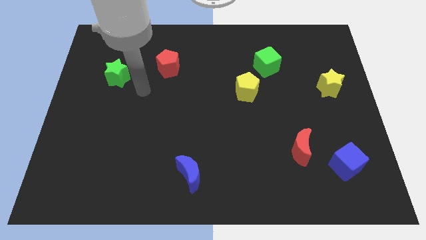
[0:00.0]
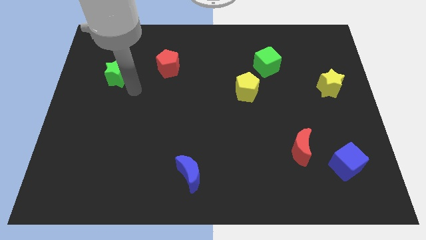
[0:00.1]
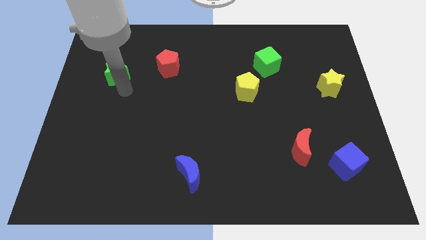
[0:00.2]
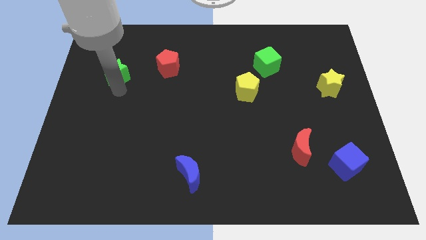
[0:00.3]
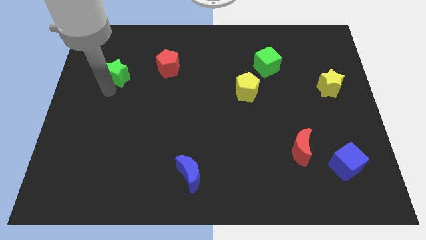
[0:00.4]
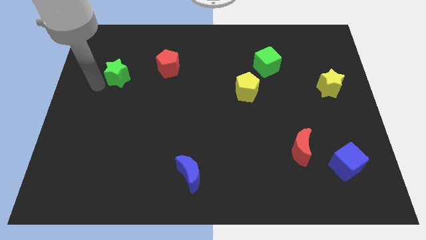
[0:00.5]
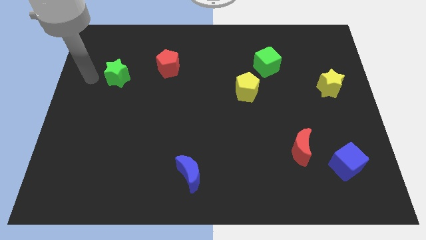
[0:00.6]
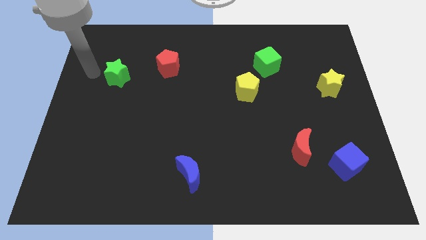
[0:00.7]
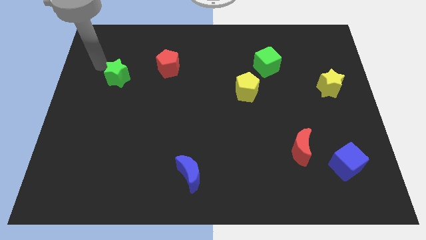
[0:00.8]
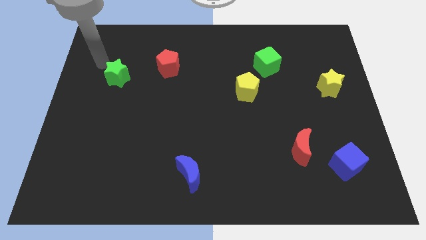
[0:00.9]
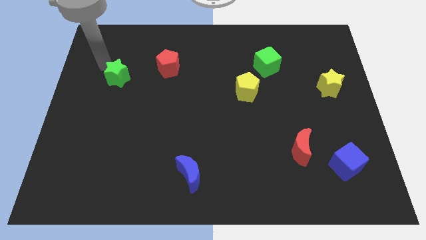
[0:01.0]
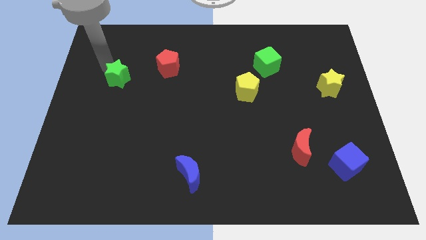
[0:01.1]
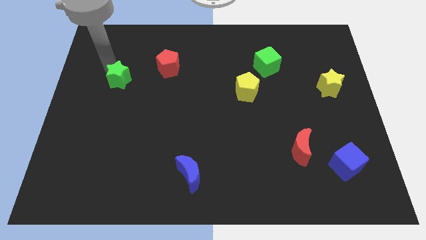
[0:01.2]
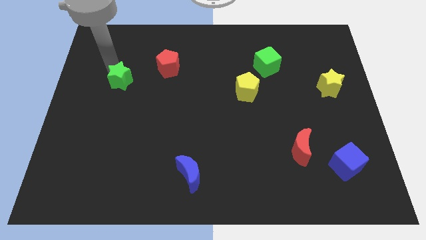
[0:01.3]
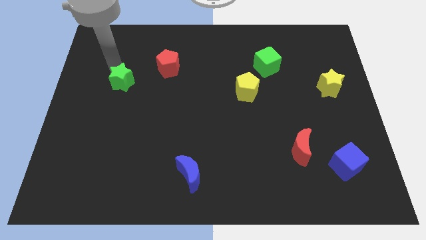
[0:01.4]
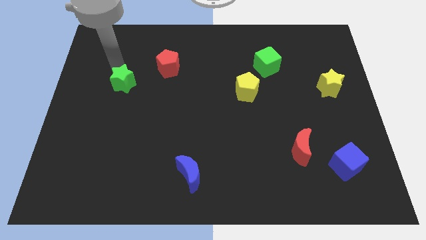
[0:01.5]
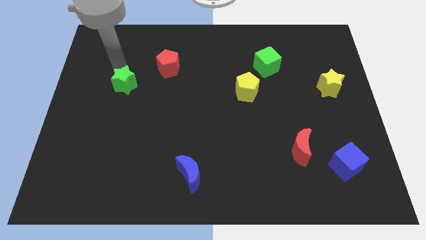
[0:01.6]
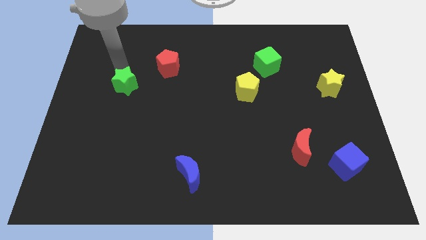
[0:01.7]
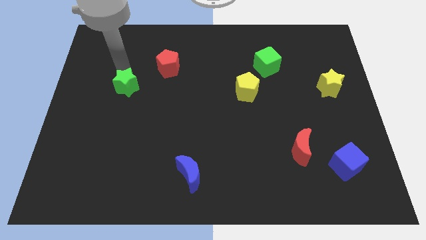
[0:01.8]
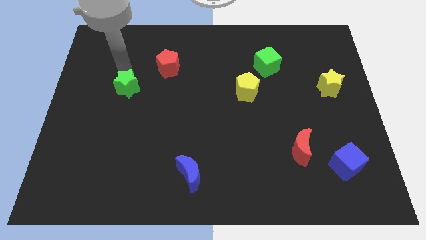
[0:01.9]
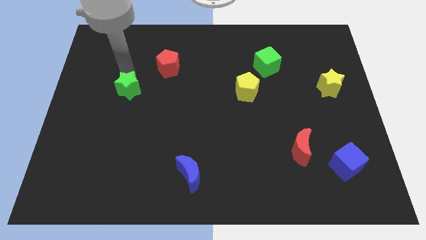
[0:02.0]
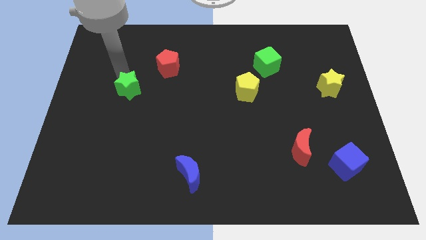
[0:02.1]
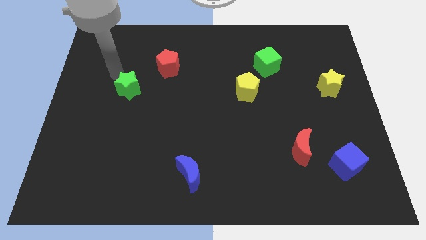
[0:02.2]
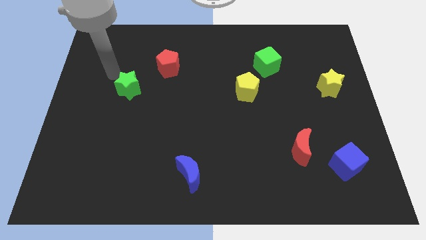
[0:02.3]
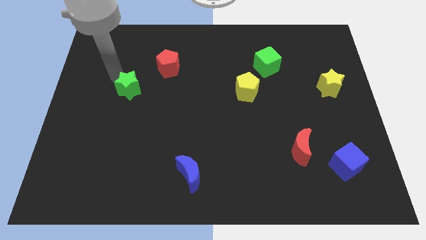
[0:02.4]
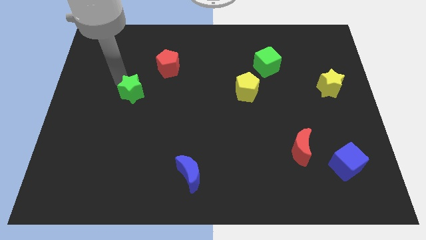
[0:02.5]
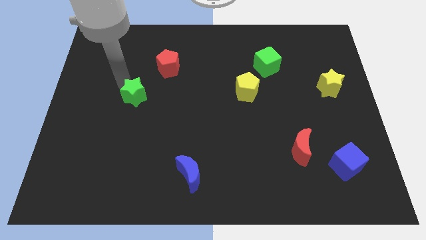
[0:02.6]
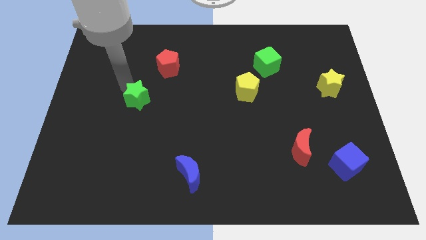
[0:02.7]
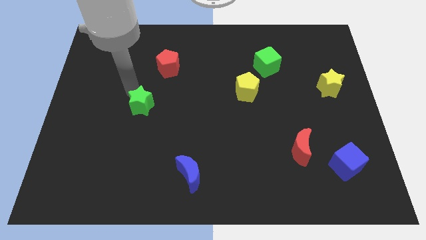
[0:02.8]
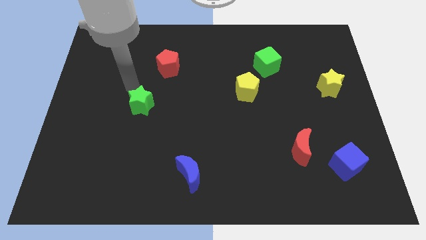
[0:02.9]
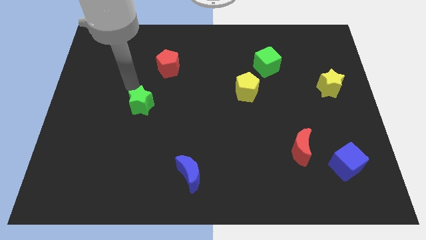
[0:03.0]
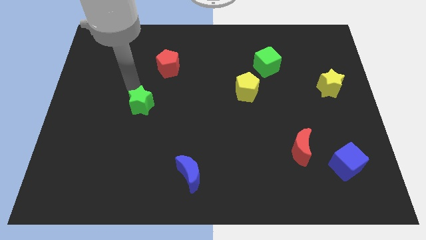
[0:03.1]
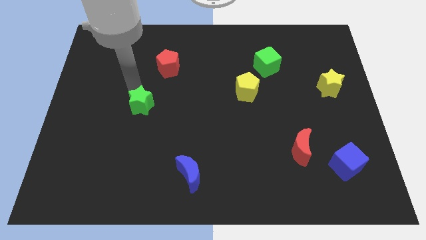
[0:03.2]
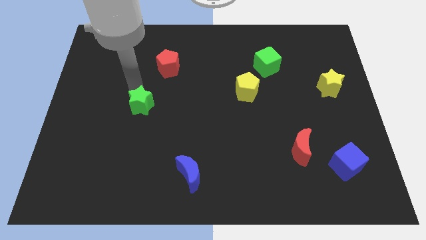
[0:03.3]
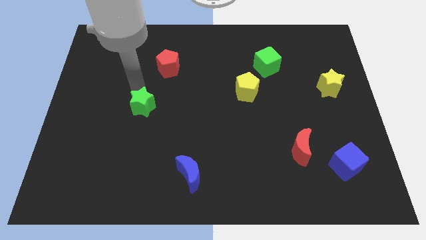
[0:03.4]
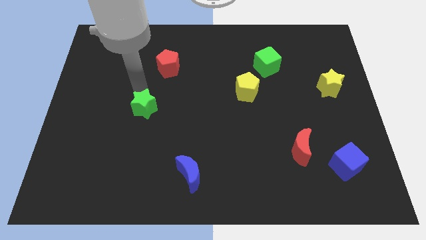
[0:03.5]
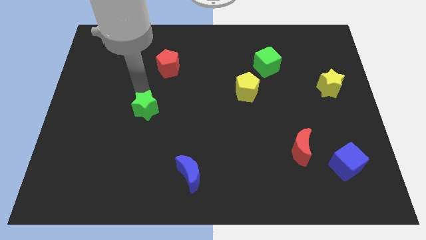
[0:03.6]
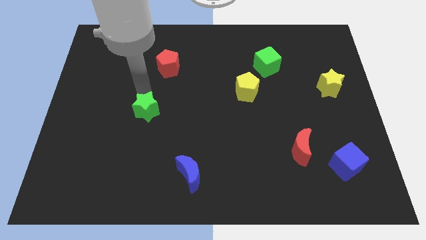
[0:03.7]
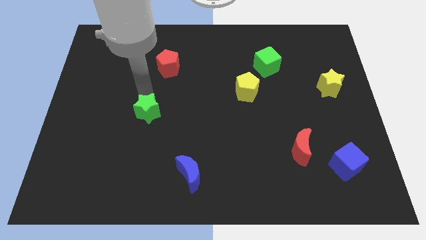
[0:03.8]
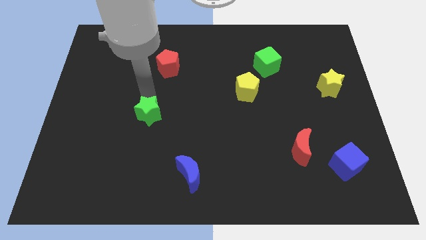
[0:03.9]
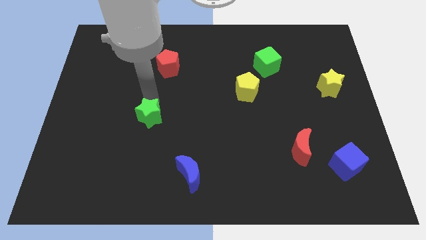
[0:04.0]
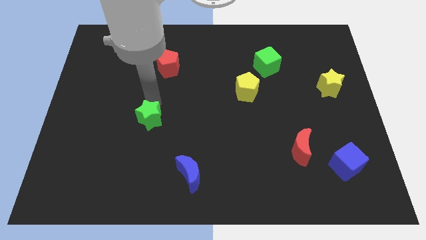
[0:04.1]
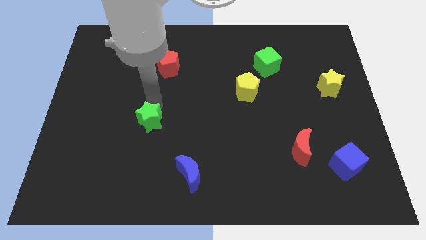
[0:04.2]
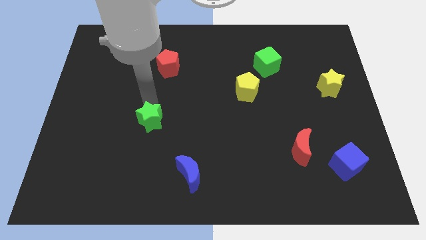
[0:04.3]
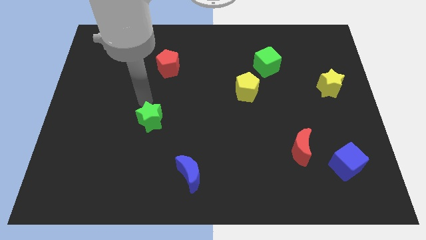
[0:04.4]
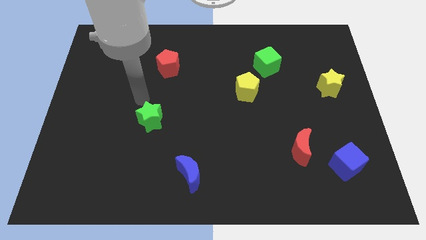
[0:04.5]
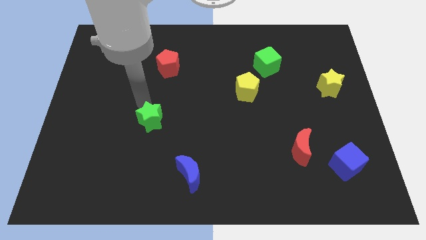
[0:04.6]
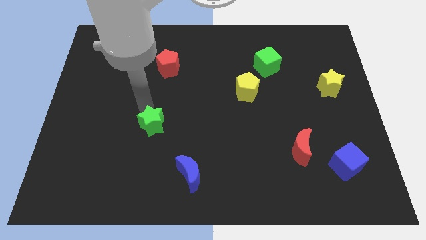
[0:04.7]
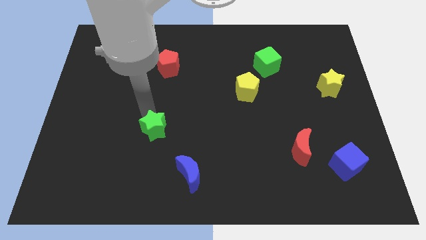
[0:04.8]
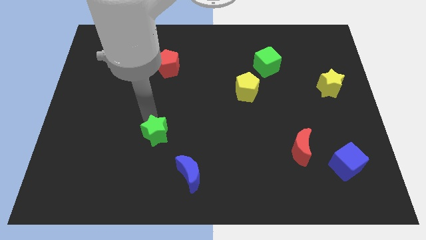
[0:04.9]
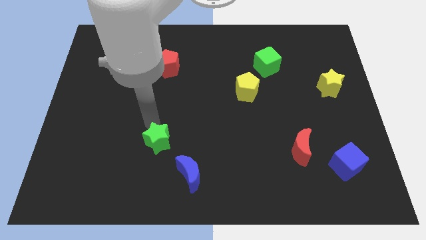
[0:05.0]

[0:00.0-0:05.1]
push the green star diagonally up and to the left of the blue moon

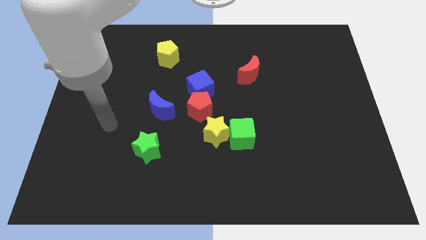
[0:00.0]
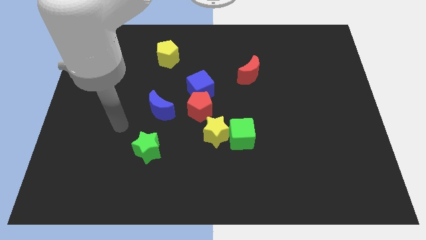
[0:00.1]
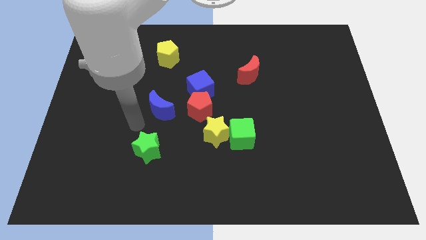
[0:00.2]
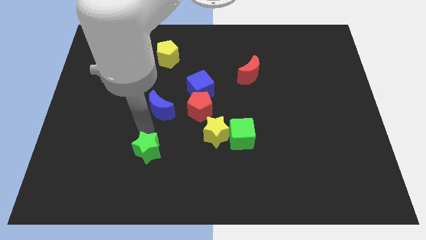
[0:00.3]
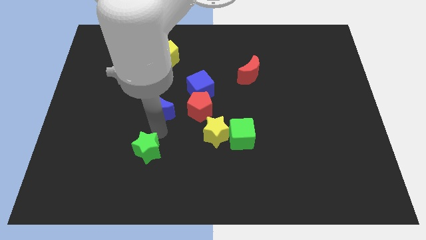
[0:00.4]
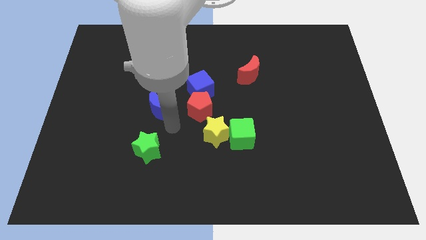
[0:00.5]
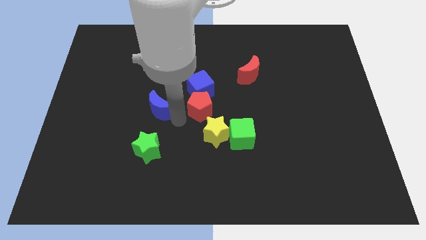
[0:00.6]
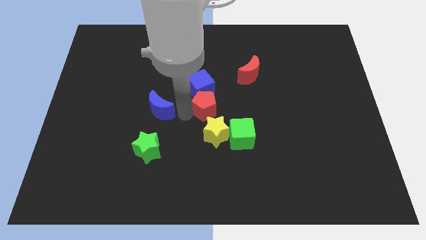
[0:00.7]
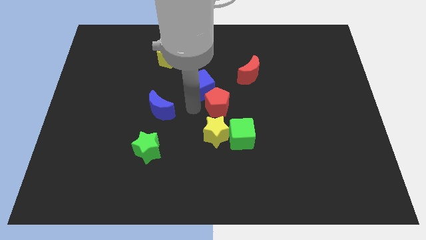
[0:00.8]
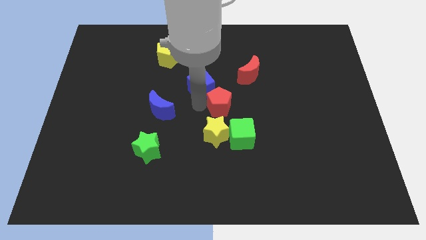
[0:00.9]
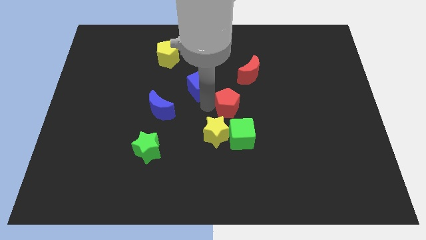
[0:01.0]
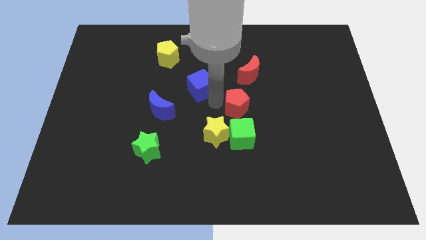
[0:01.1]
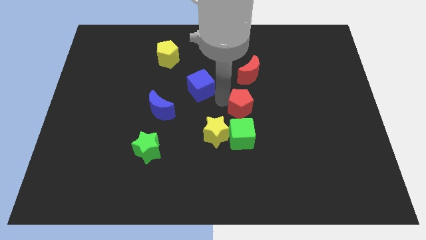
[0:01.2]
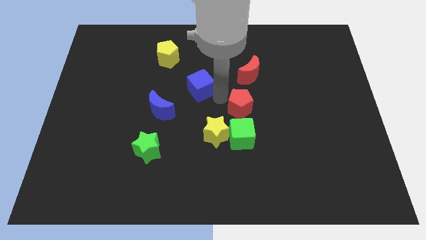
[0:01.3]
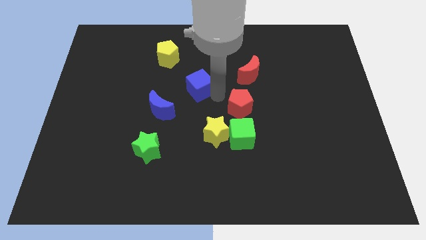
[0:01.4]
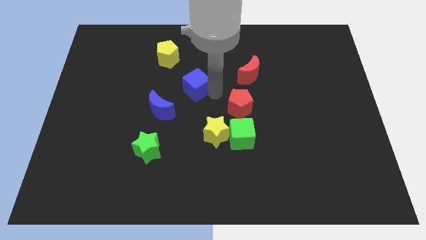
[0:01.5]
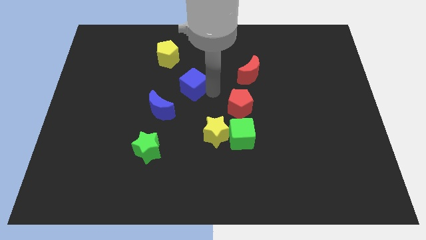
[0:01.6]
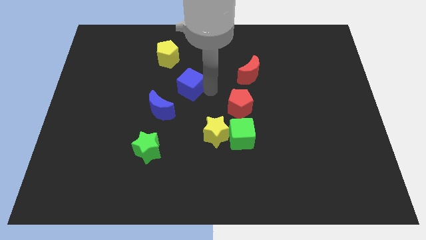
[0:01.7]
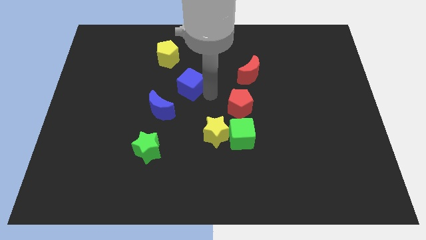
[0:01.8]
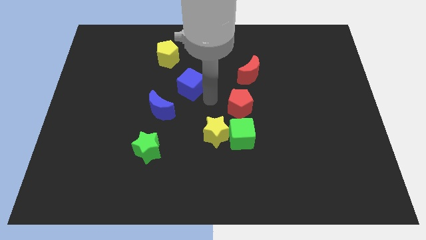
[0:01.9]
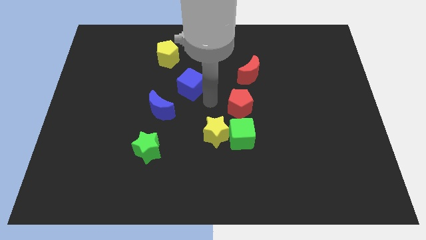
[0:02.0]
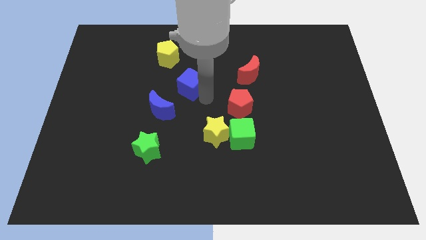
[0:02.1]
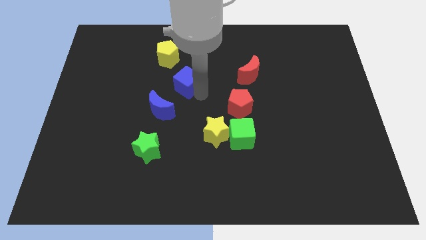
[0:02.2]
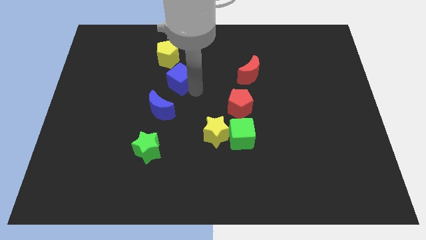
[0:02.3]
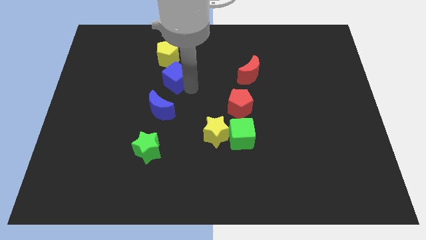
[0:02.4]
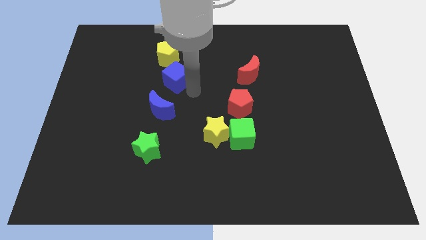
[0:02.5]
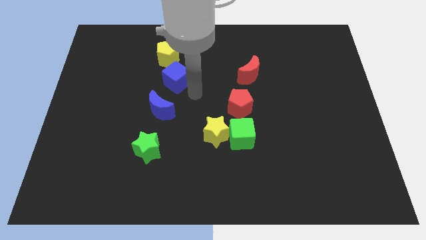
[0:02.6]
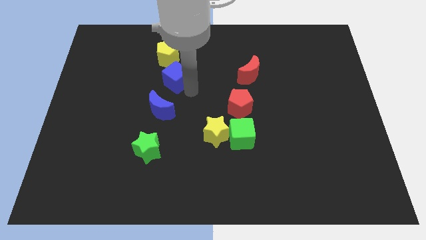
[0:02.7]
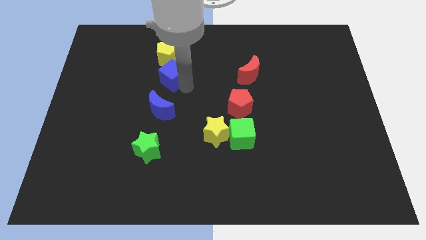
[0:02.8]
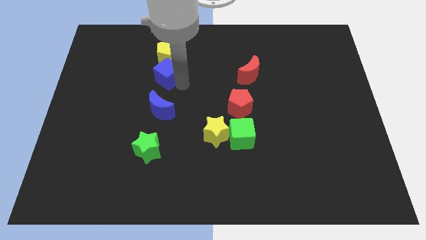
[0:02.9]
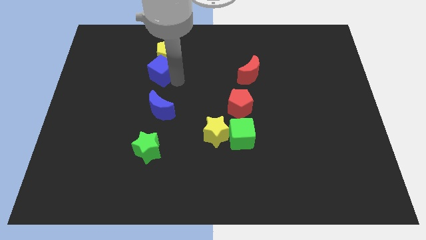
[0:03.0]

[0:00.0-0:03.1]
put the blue cube to the bottom left of the yellow pentagon
